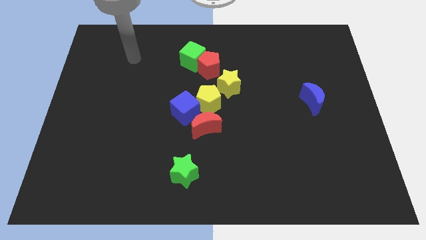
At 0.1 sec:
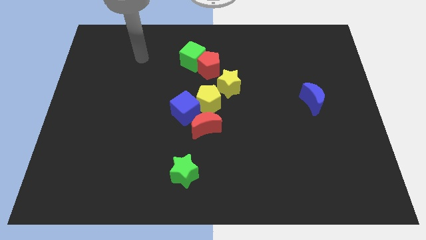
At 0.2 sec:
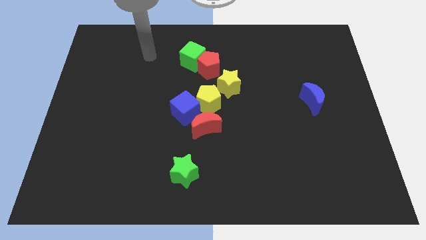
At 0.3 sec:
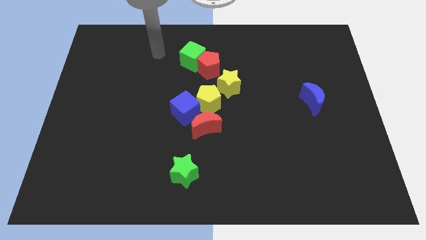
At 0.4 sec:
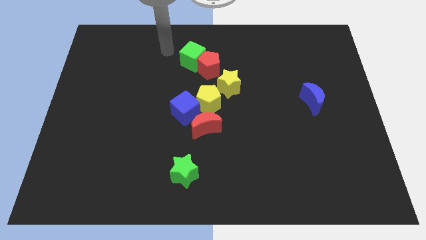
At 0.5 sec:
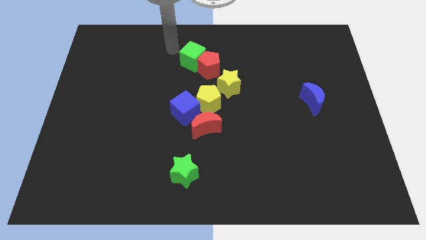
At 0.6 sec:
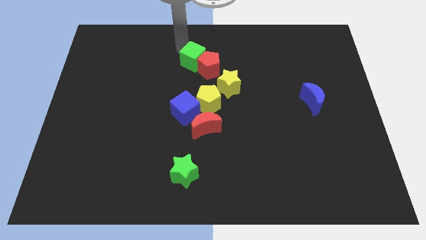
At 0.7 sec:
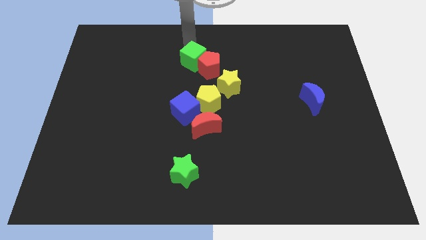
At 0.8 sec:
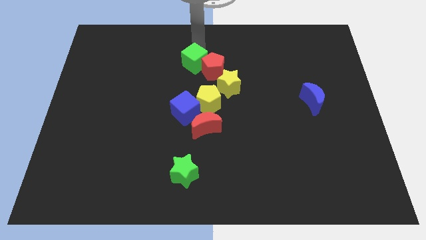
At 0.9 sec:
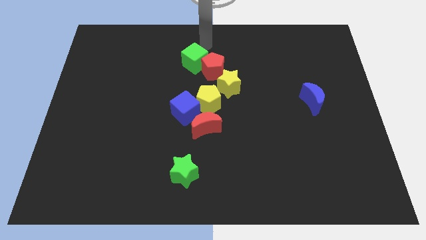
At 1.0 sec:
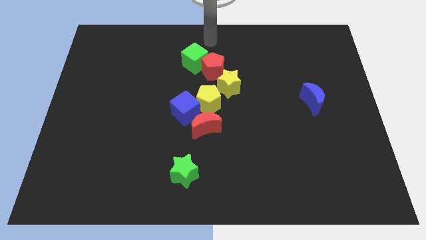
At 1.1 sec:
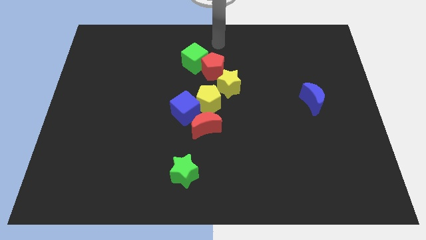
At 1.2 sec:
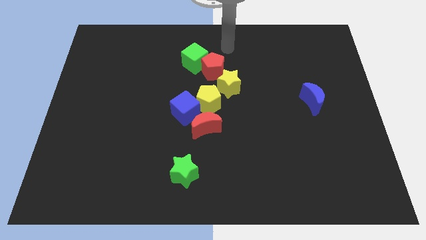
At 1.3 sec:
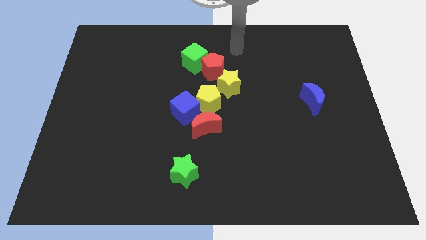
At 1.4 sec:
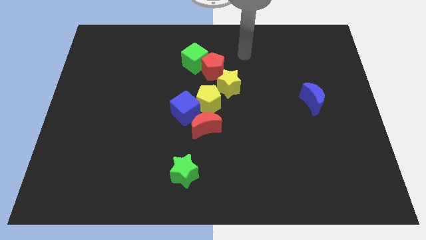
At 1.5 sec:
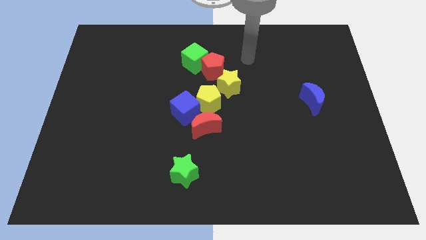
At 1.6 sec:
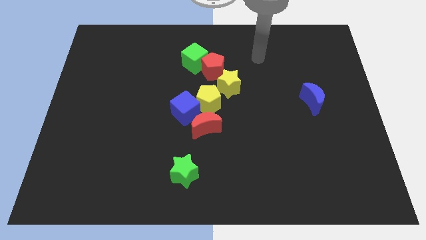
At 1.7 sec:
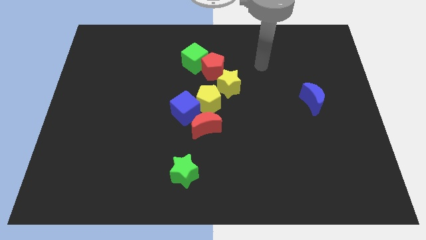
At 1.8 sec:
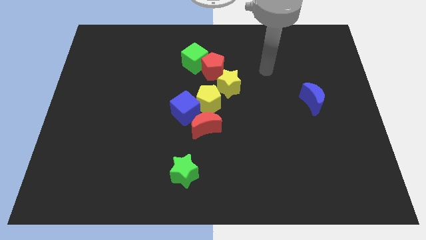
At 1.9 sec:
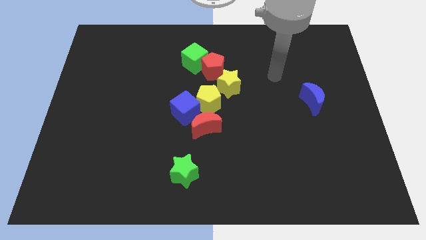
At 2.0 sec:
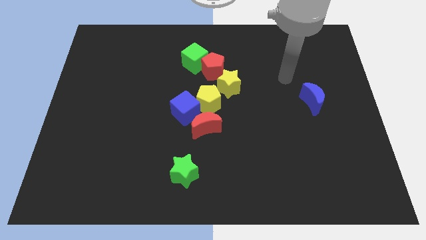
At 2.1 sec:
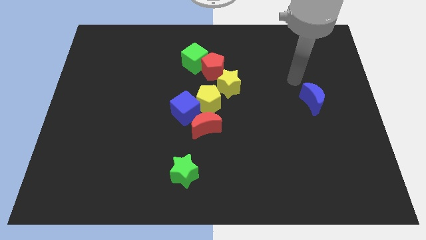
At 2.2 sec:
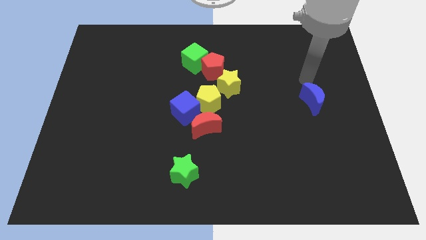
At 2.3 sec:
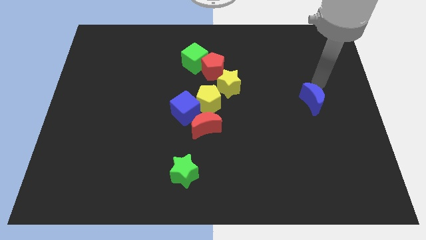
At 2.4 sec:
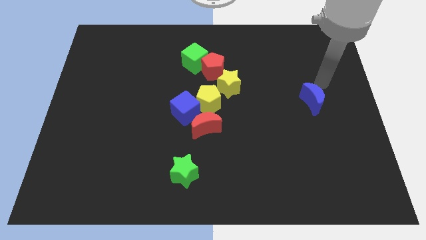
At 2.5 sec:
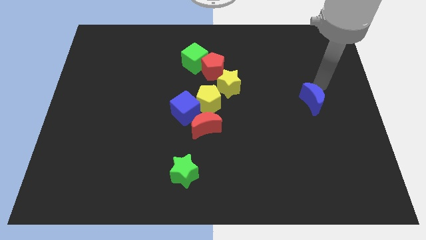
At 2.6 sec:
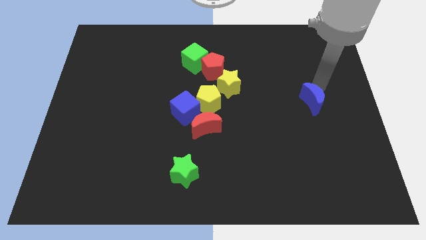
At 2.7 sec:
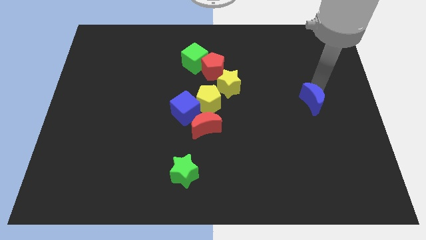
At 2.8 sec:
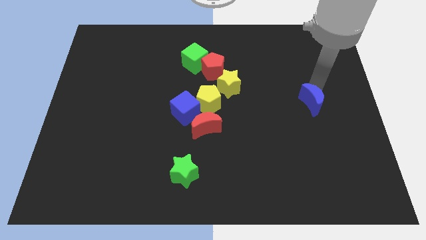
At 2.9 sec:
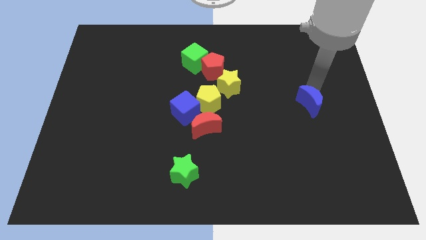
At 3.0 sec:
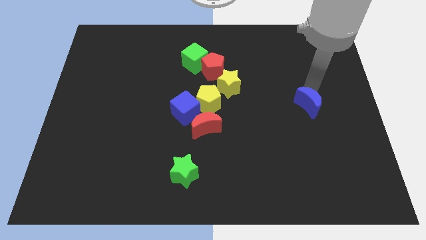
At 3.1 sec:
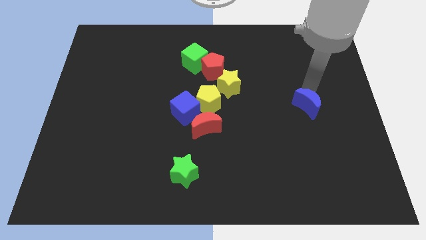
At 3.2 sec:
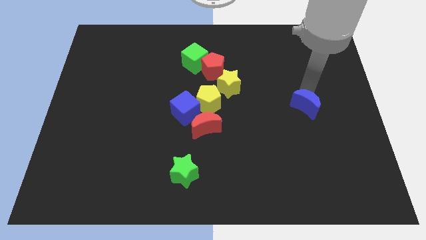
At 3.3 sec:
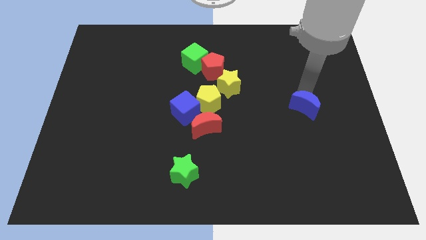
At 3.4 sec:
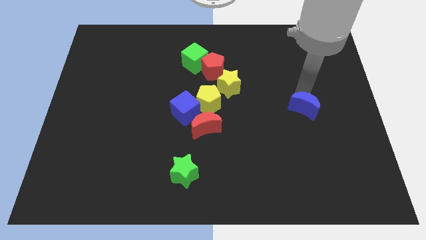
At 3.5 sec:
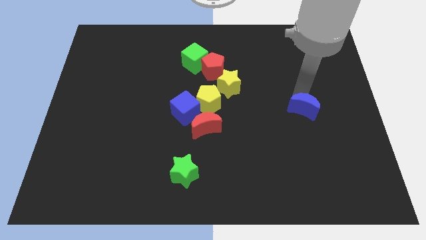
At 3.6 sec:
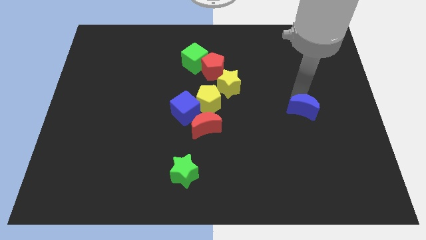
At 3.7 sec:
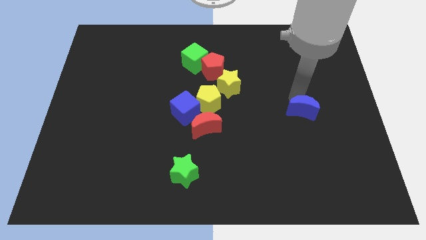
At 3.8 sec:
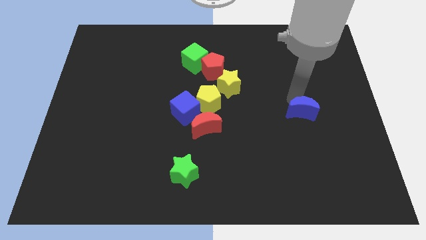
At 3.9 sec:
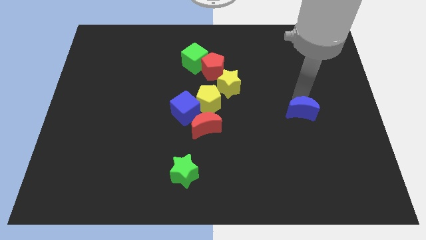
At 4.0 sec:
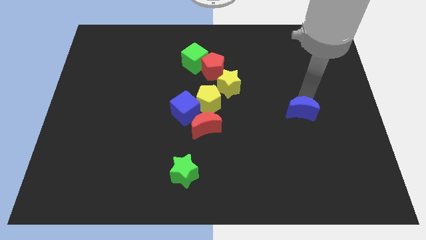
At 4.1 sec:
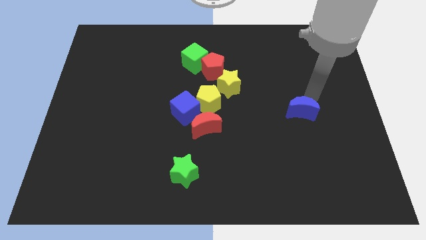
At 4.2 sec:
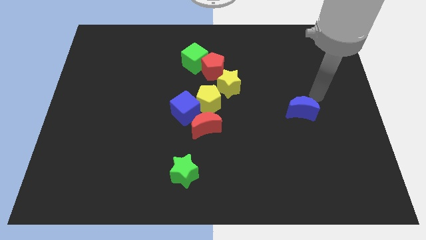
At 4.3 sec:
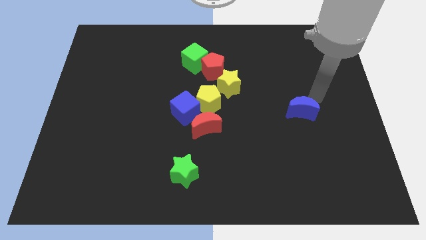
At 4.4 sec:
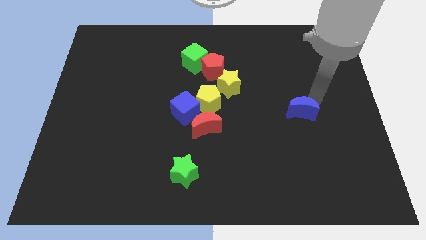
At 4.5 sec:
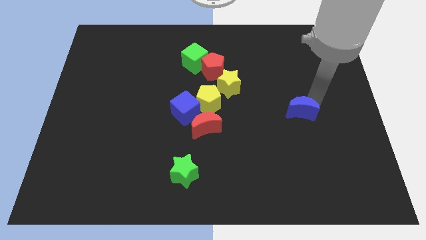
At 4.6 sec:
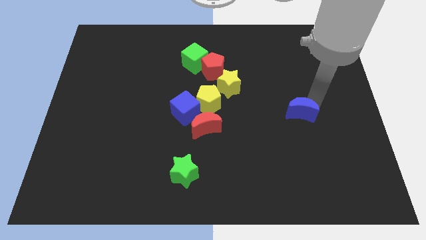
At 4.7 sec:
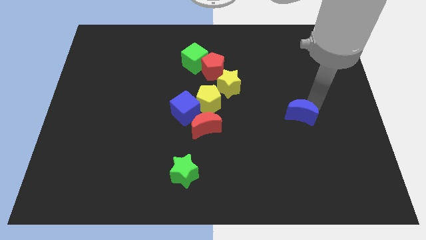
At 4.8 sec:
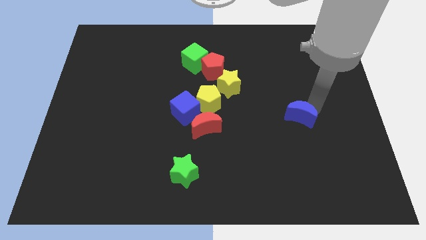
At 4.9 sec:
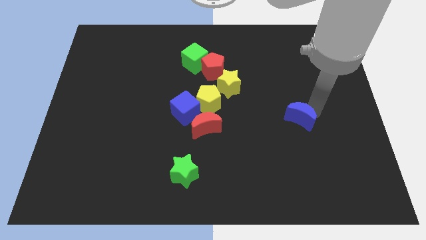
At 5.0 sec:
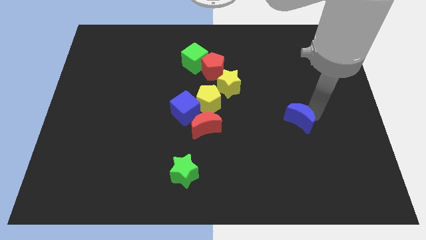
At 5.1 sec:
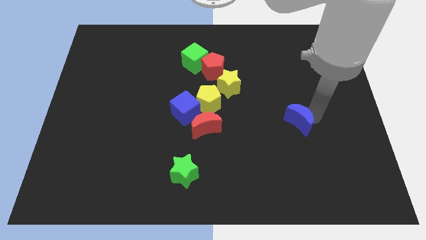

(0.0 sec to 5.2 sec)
slightly slide the blue moon downwards and then left

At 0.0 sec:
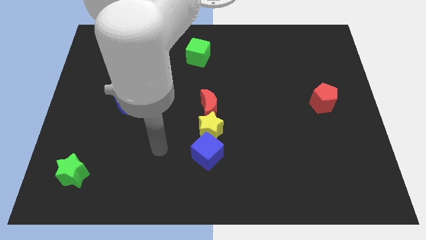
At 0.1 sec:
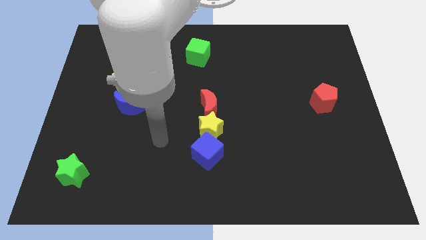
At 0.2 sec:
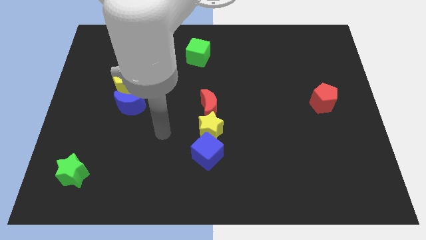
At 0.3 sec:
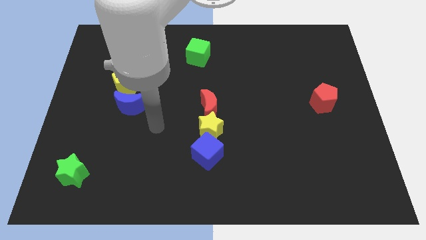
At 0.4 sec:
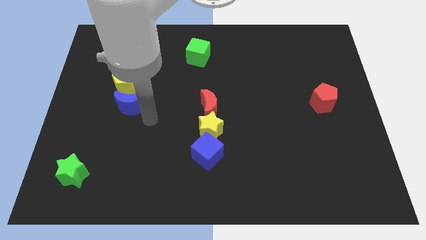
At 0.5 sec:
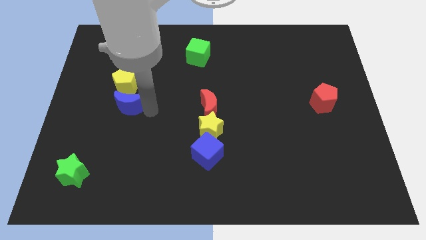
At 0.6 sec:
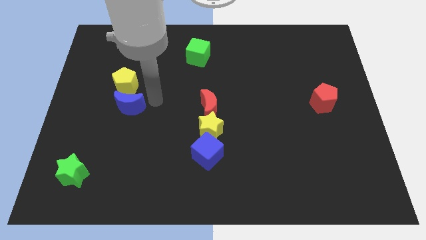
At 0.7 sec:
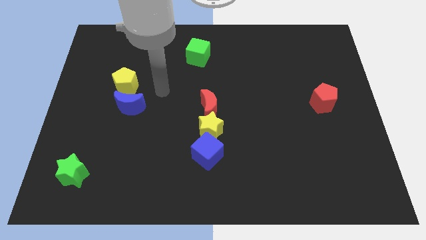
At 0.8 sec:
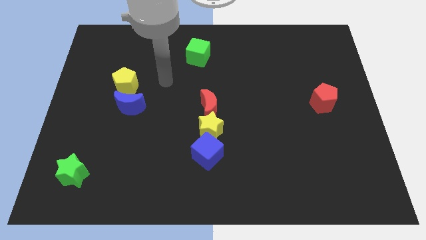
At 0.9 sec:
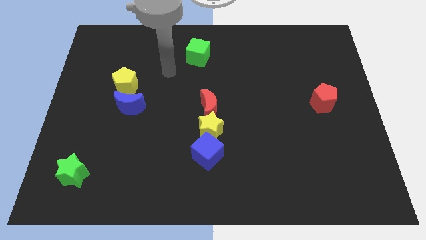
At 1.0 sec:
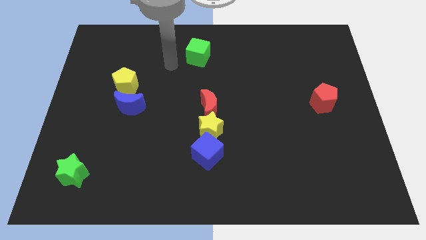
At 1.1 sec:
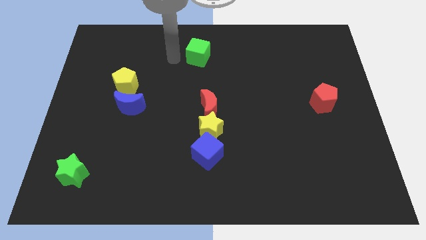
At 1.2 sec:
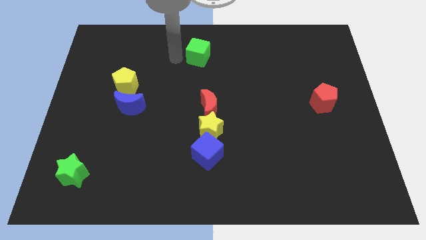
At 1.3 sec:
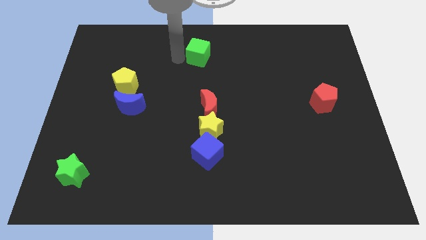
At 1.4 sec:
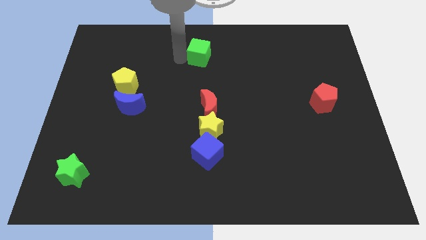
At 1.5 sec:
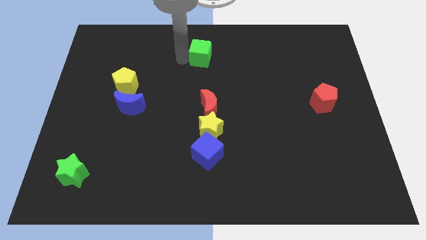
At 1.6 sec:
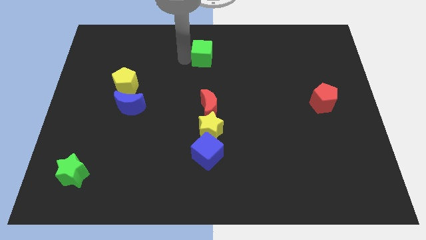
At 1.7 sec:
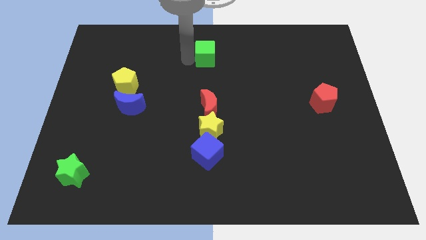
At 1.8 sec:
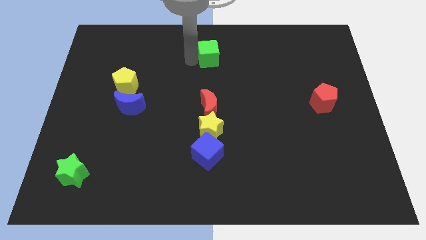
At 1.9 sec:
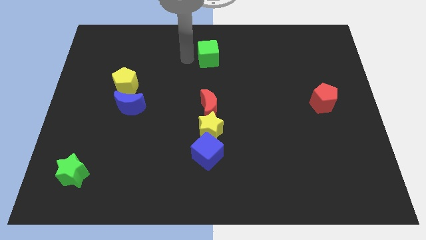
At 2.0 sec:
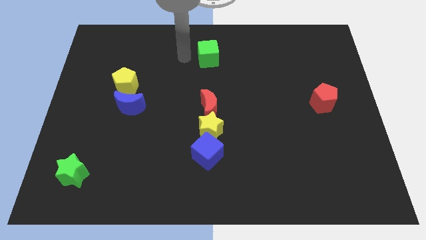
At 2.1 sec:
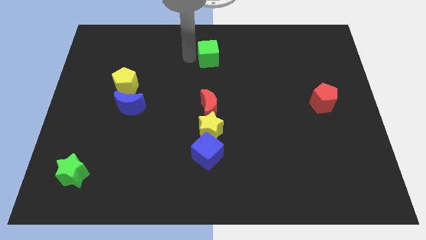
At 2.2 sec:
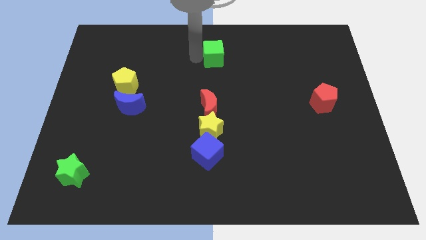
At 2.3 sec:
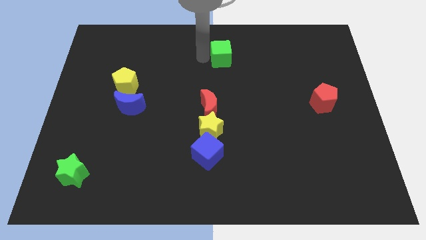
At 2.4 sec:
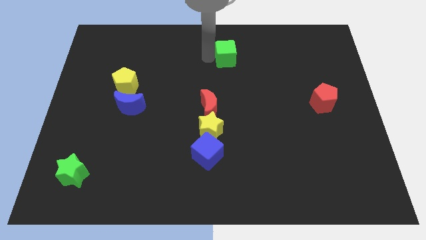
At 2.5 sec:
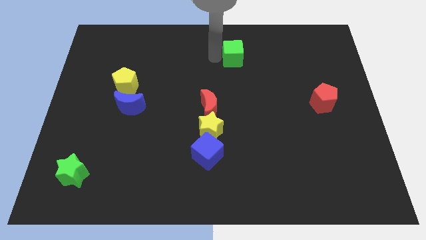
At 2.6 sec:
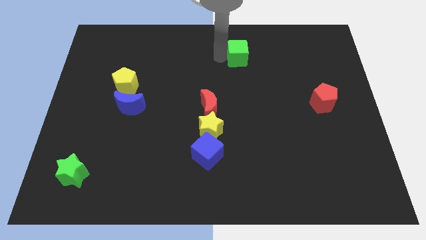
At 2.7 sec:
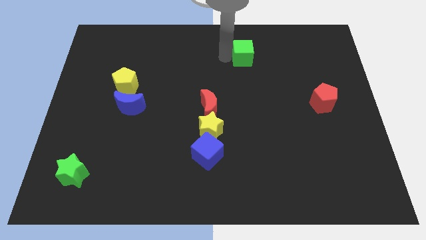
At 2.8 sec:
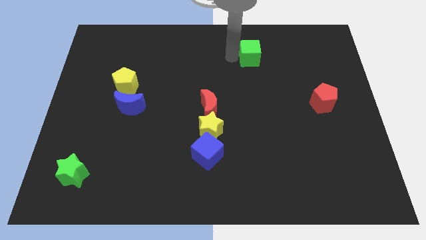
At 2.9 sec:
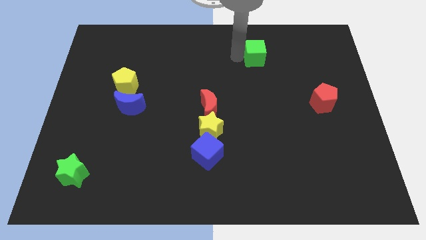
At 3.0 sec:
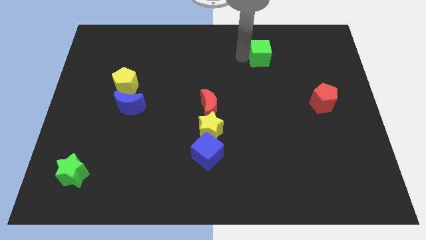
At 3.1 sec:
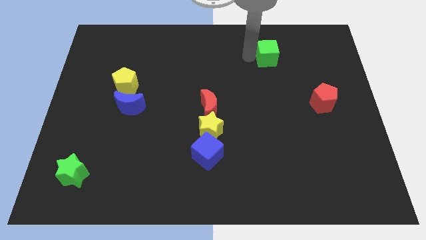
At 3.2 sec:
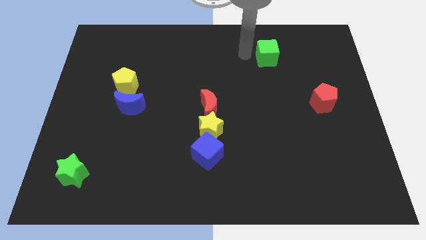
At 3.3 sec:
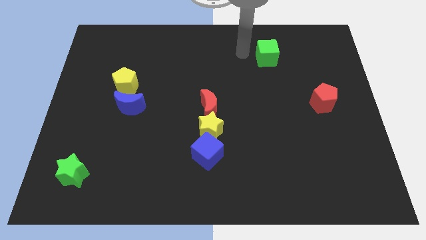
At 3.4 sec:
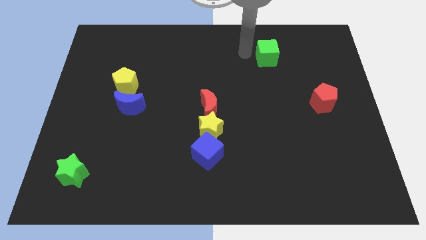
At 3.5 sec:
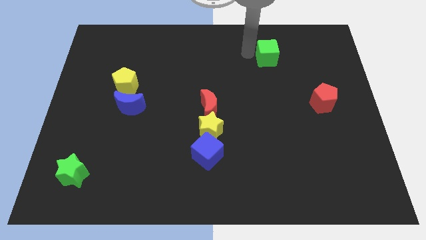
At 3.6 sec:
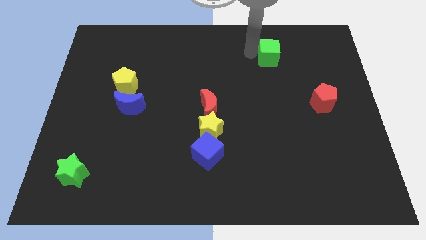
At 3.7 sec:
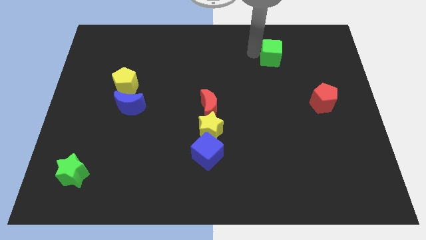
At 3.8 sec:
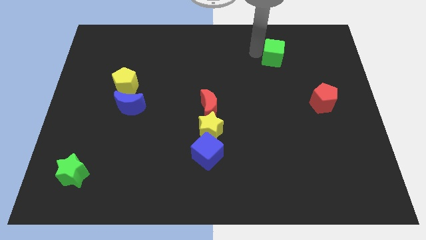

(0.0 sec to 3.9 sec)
move the green cube right
